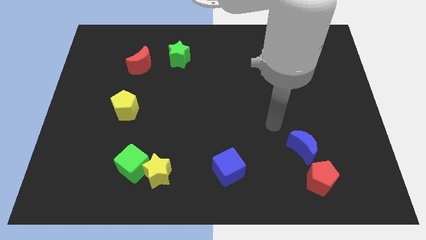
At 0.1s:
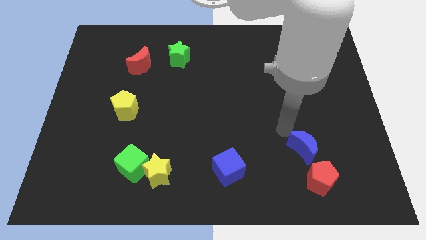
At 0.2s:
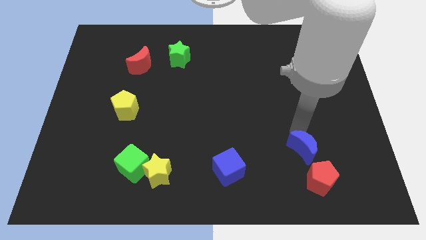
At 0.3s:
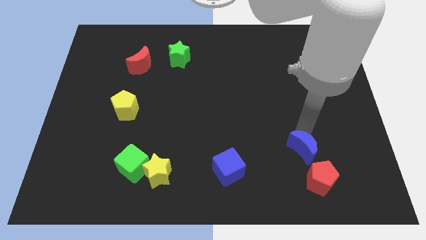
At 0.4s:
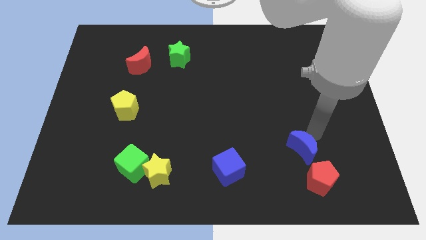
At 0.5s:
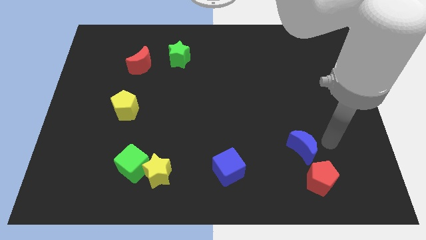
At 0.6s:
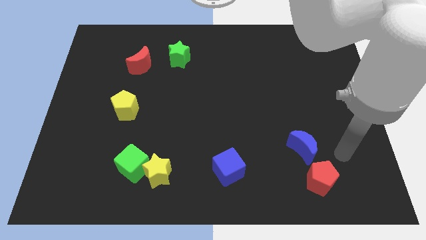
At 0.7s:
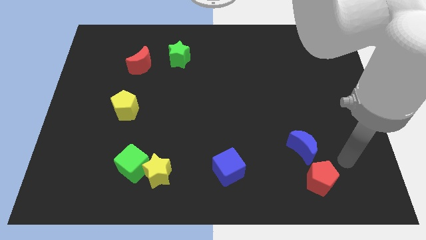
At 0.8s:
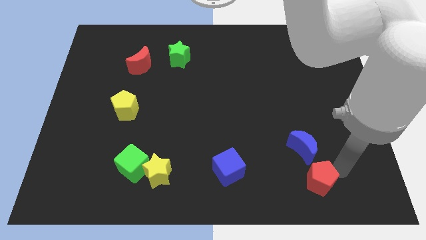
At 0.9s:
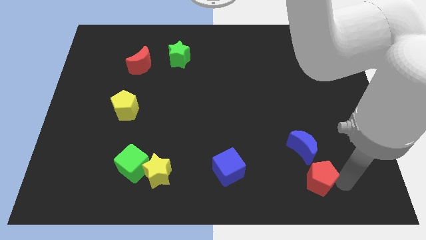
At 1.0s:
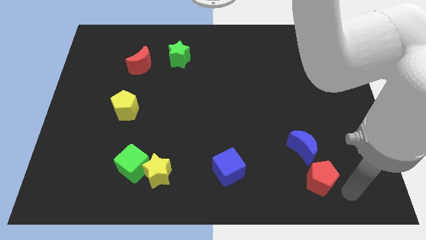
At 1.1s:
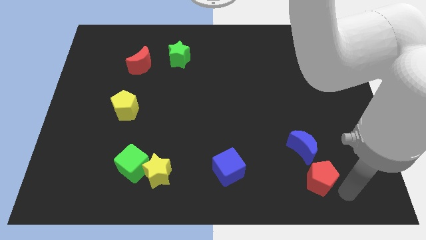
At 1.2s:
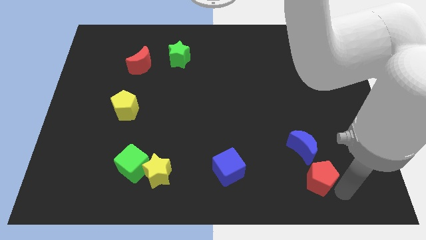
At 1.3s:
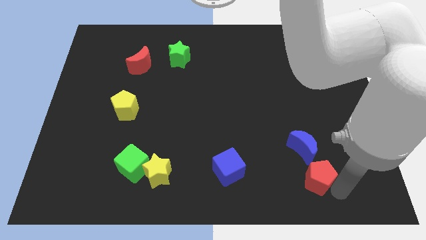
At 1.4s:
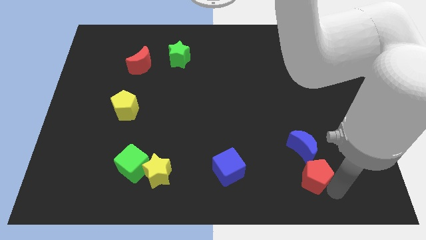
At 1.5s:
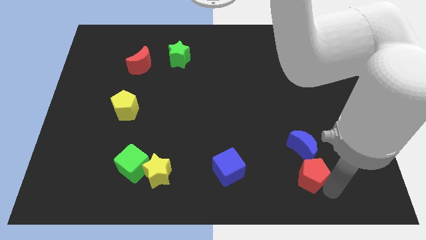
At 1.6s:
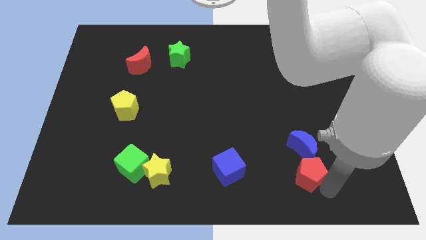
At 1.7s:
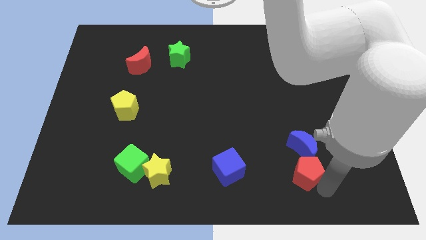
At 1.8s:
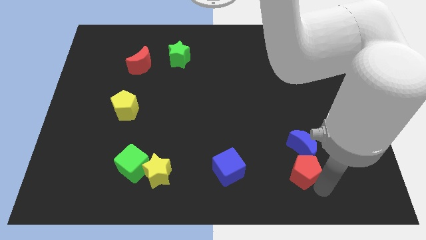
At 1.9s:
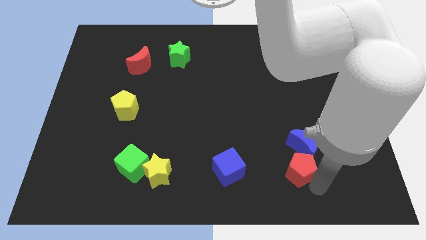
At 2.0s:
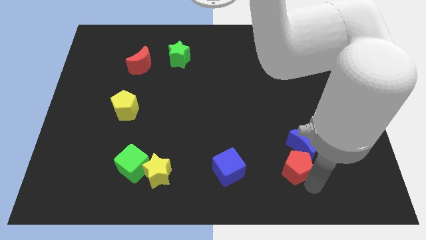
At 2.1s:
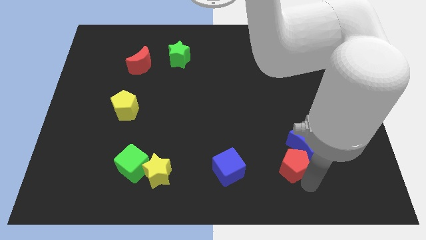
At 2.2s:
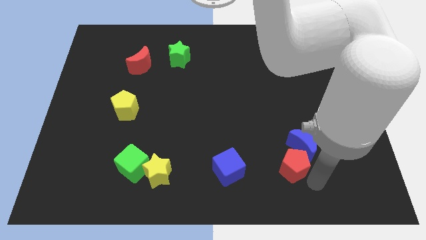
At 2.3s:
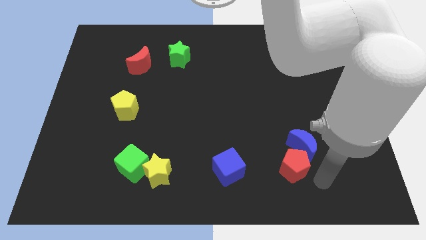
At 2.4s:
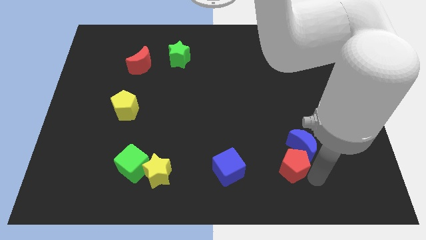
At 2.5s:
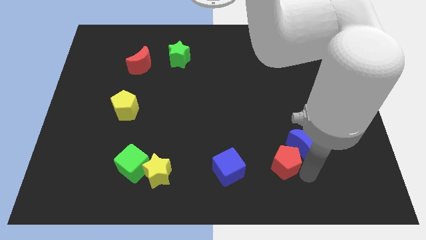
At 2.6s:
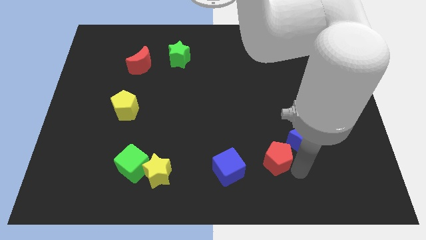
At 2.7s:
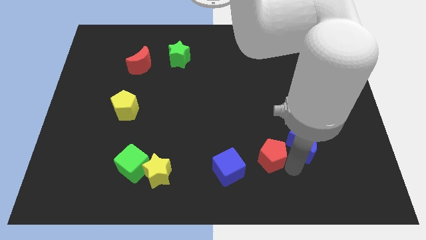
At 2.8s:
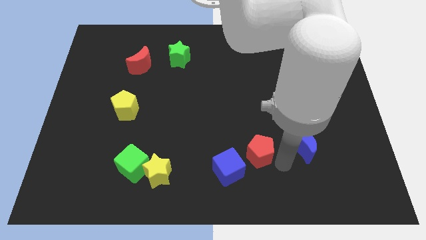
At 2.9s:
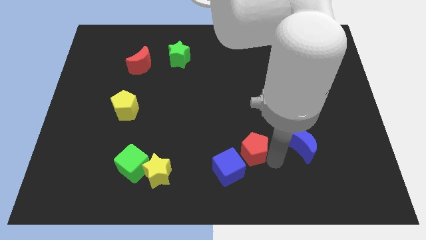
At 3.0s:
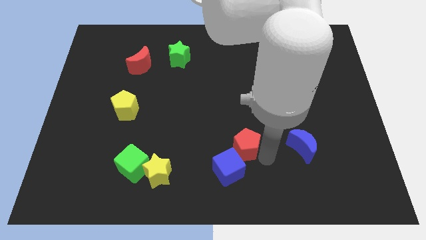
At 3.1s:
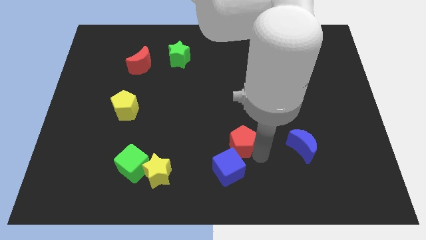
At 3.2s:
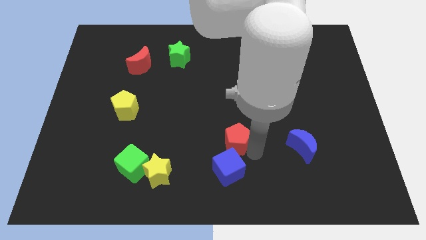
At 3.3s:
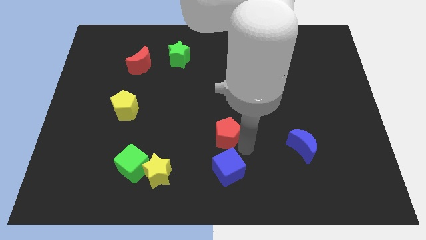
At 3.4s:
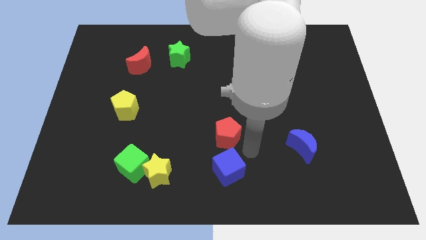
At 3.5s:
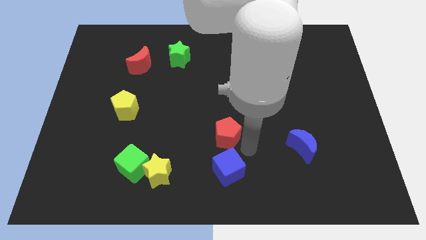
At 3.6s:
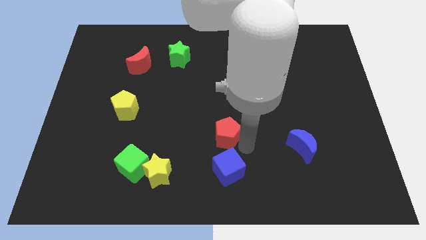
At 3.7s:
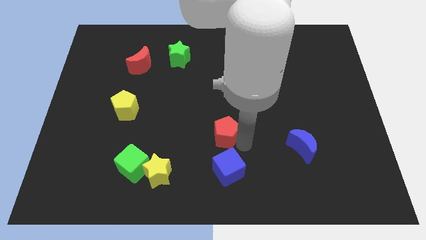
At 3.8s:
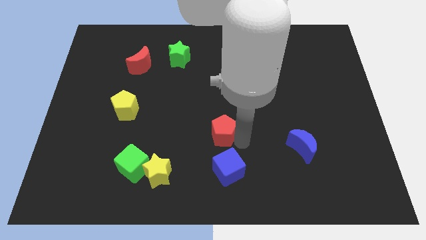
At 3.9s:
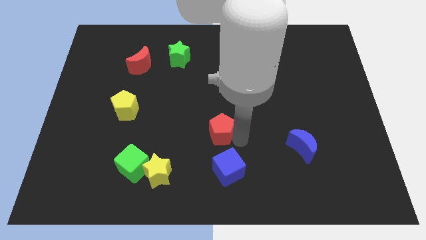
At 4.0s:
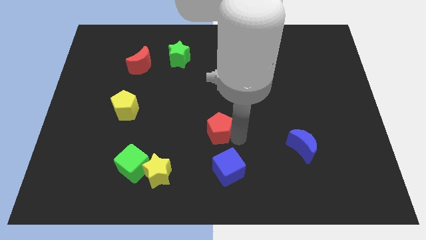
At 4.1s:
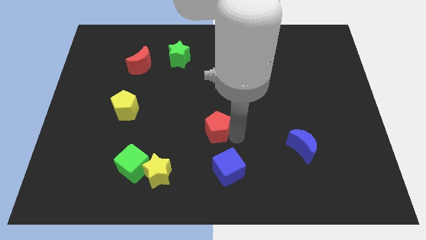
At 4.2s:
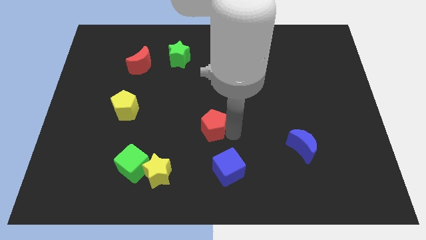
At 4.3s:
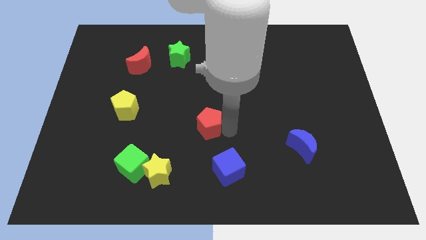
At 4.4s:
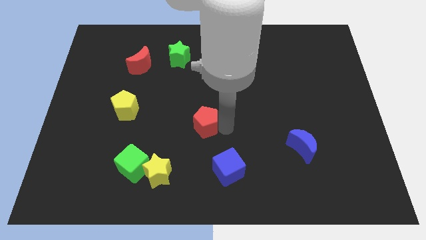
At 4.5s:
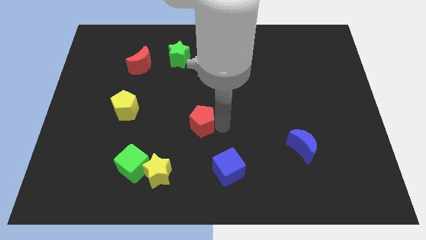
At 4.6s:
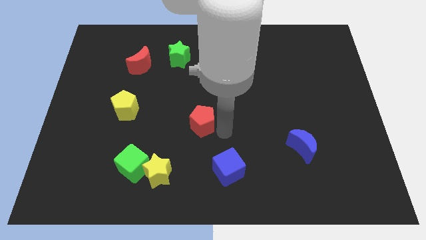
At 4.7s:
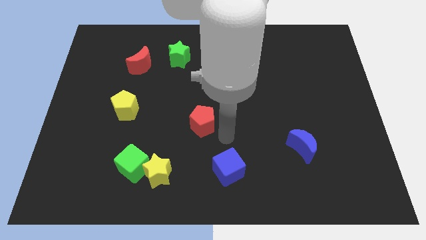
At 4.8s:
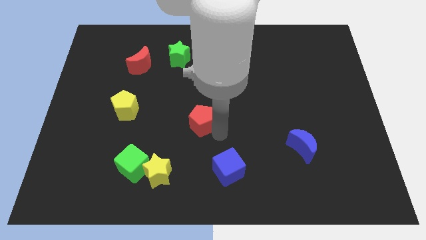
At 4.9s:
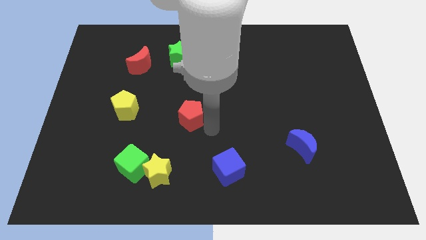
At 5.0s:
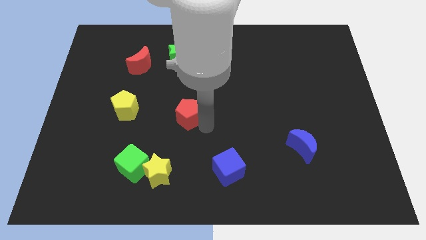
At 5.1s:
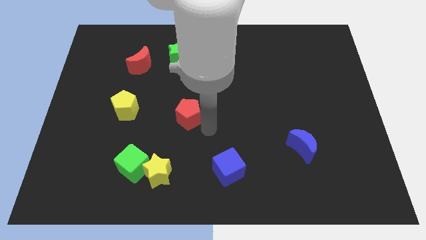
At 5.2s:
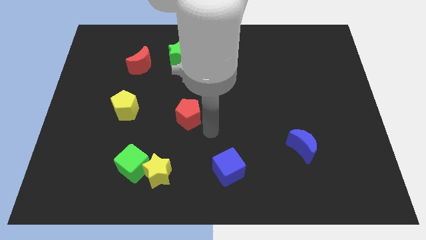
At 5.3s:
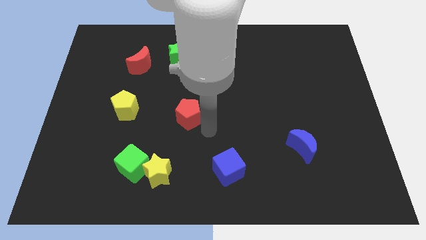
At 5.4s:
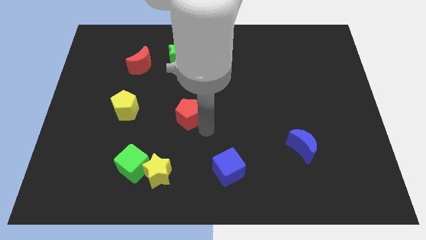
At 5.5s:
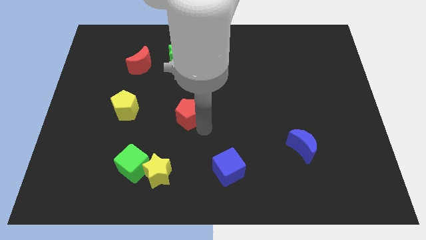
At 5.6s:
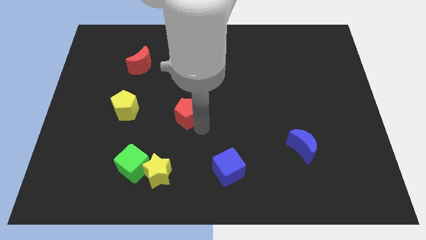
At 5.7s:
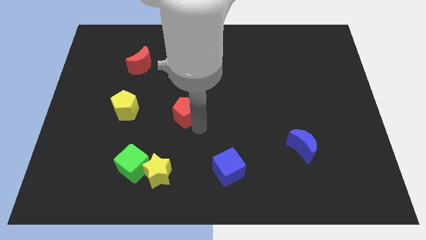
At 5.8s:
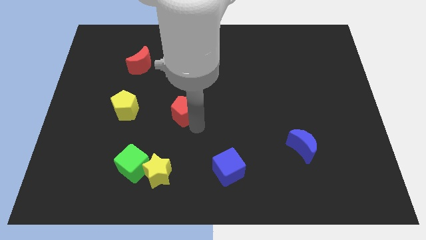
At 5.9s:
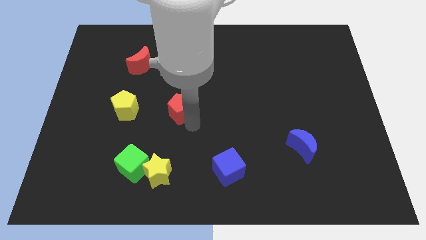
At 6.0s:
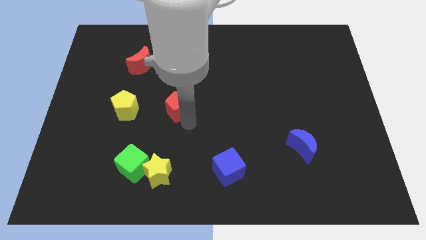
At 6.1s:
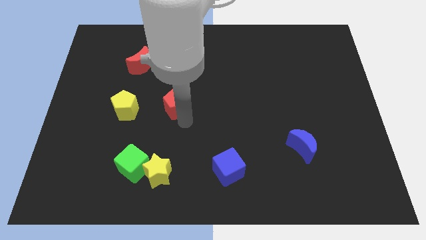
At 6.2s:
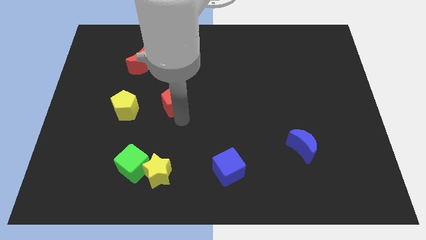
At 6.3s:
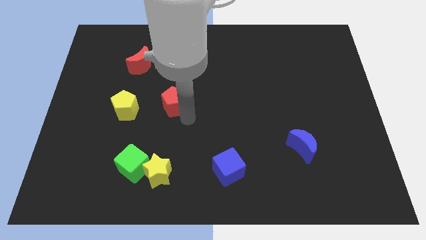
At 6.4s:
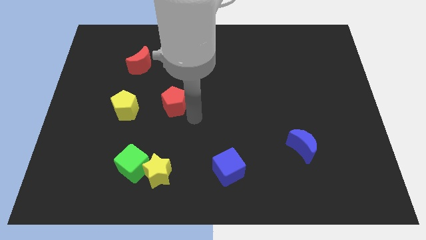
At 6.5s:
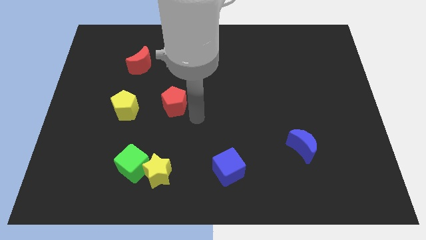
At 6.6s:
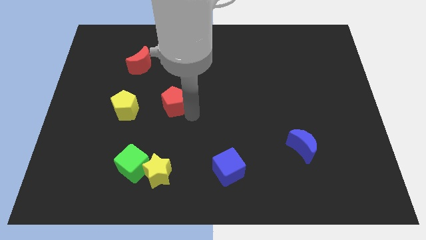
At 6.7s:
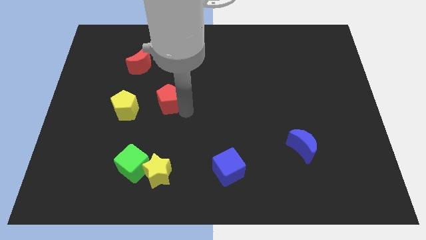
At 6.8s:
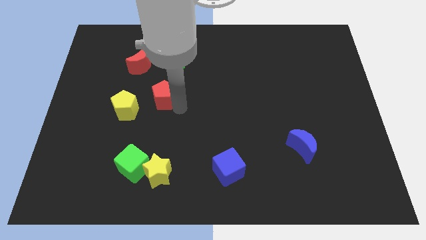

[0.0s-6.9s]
put the red pentagon to the top right side of the yellow pentagon
